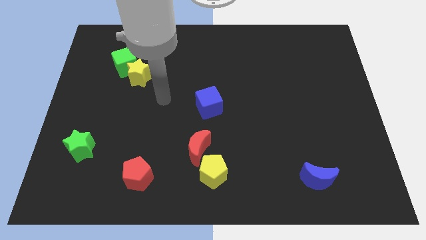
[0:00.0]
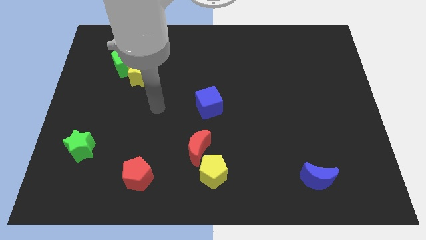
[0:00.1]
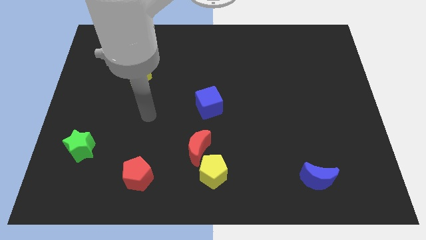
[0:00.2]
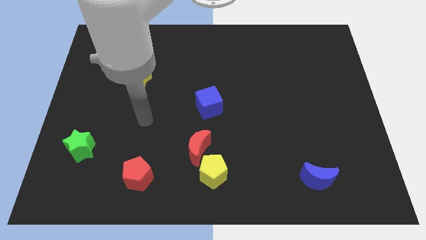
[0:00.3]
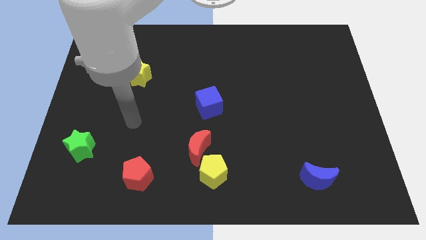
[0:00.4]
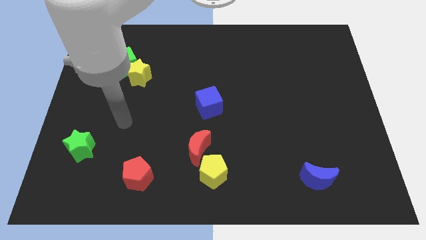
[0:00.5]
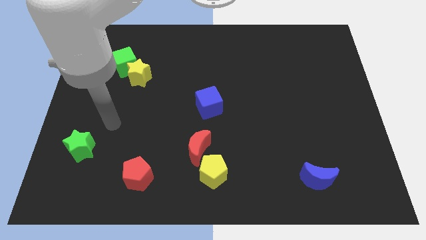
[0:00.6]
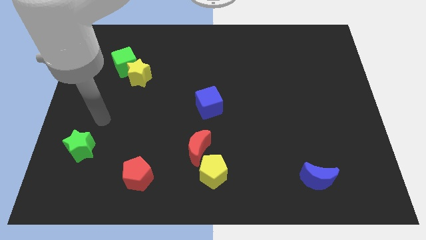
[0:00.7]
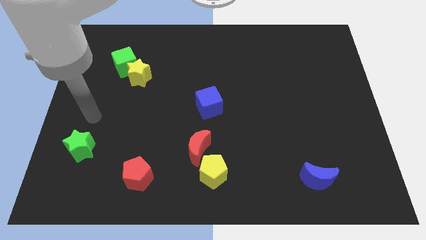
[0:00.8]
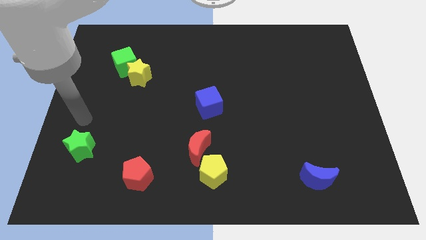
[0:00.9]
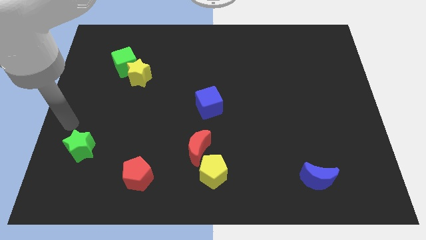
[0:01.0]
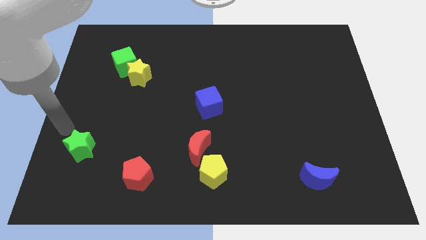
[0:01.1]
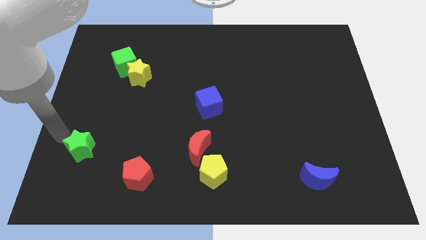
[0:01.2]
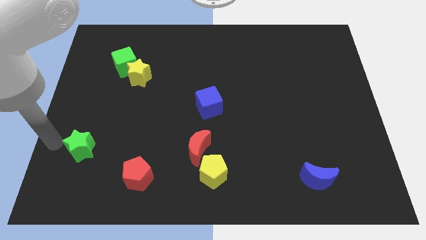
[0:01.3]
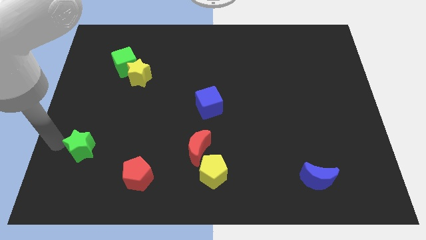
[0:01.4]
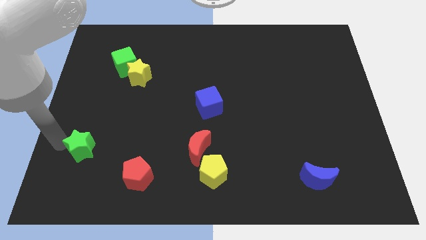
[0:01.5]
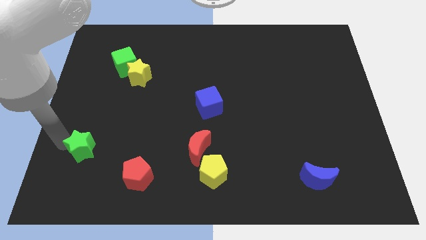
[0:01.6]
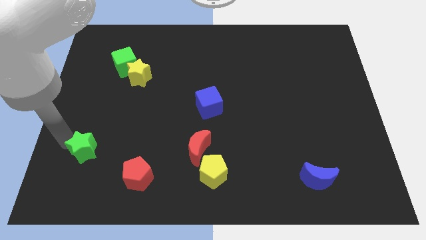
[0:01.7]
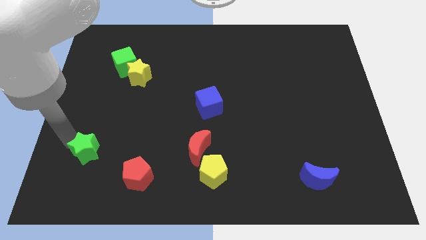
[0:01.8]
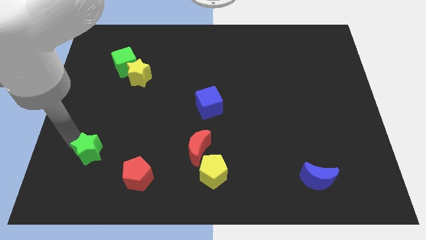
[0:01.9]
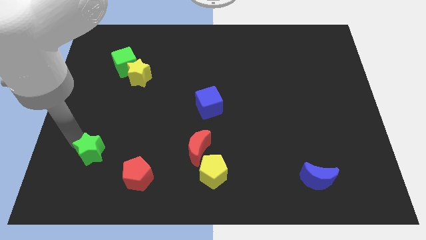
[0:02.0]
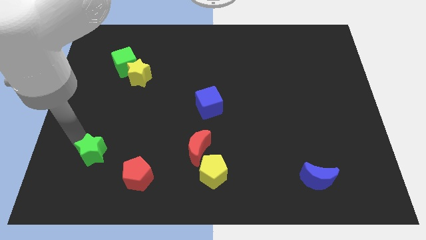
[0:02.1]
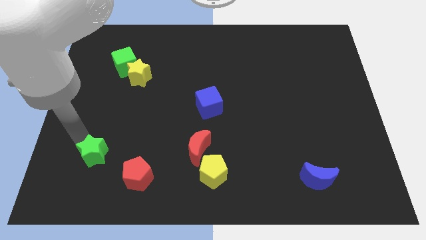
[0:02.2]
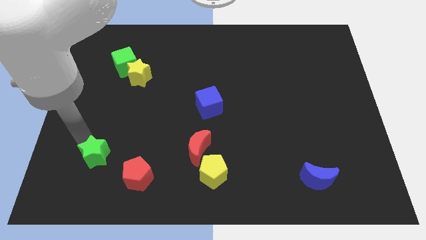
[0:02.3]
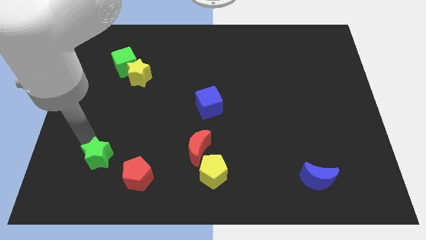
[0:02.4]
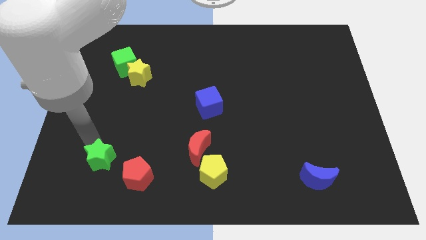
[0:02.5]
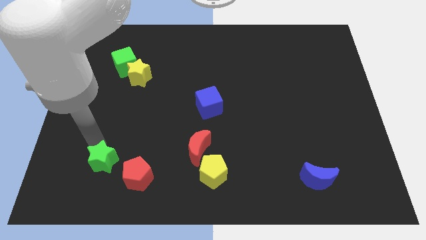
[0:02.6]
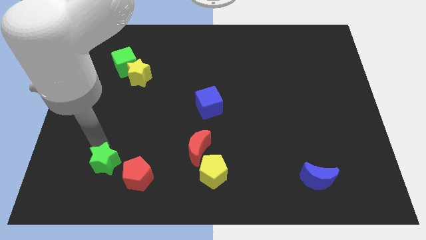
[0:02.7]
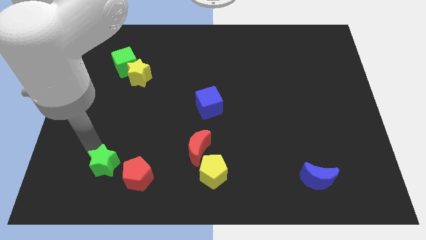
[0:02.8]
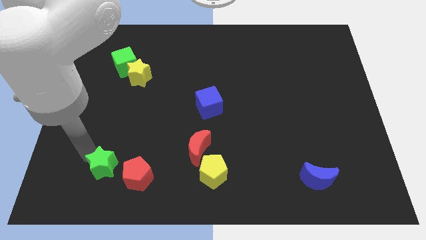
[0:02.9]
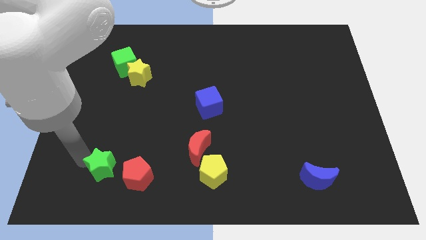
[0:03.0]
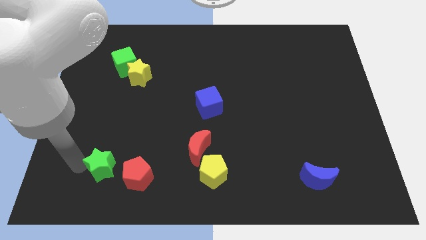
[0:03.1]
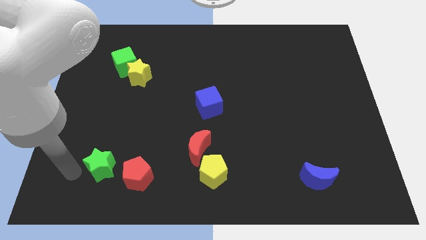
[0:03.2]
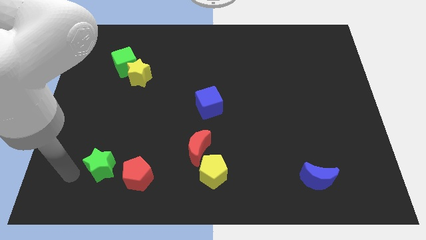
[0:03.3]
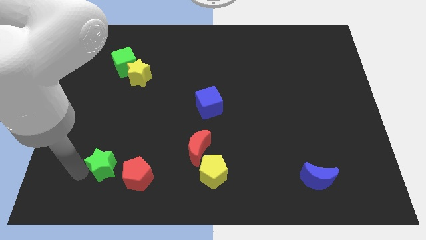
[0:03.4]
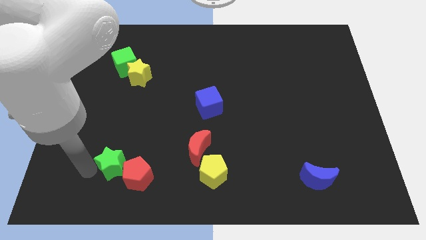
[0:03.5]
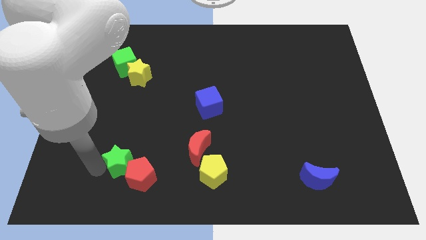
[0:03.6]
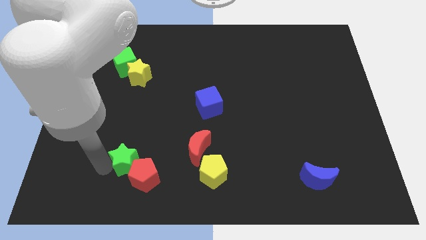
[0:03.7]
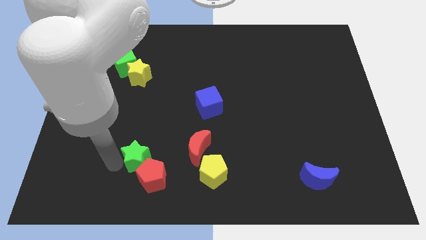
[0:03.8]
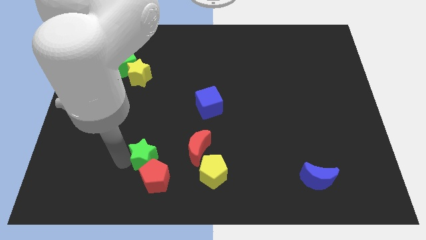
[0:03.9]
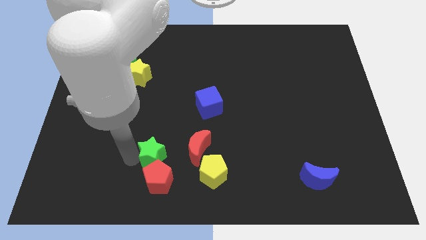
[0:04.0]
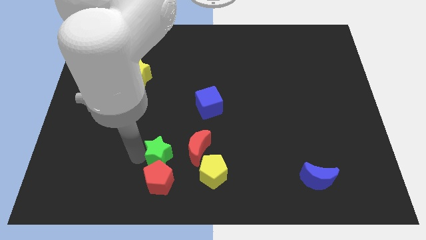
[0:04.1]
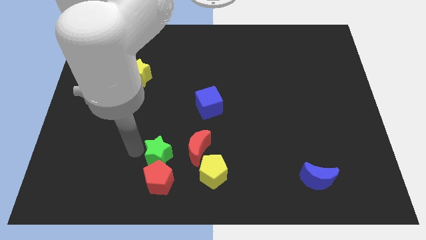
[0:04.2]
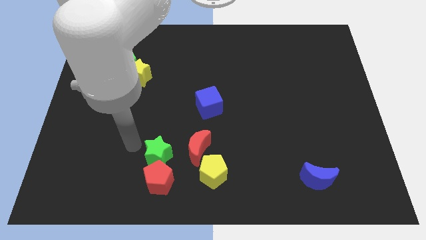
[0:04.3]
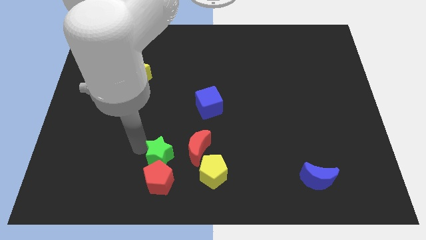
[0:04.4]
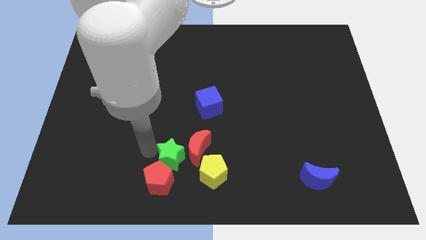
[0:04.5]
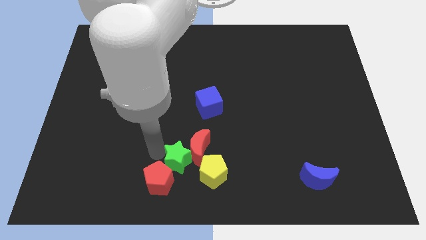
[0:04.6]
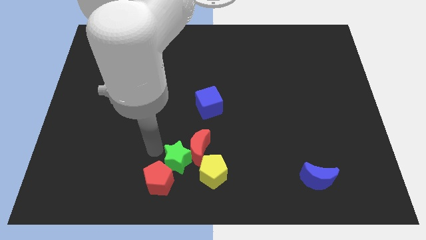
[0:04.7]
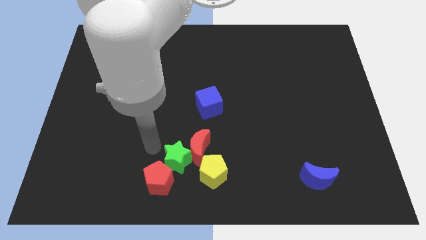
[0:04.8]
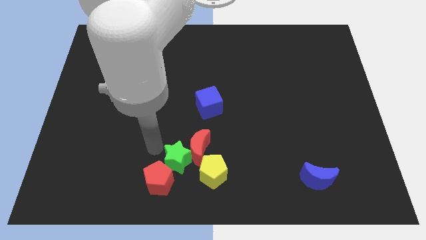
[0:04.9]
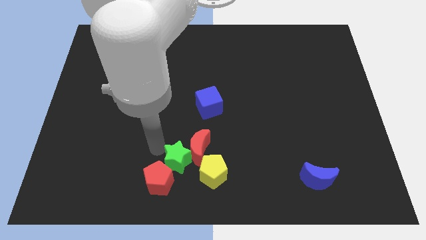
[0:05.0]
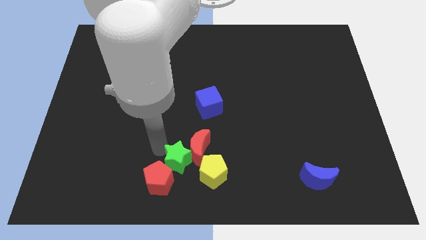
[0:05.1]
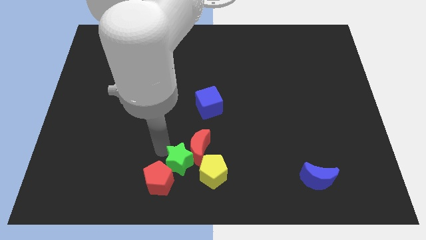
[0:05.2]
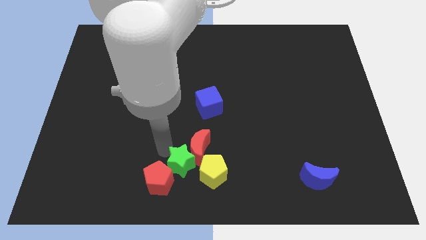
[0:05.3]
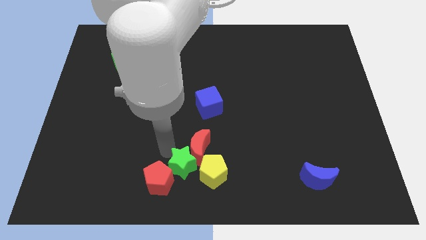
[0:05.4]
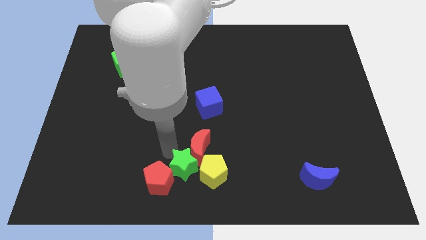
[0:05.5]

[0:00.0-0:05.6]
move the green star towards the yellow pentagon

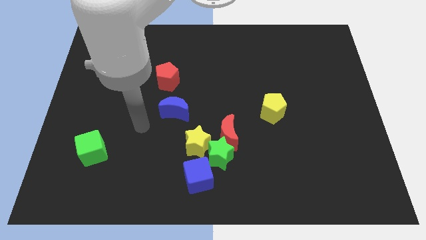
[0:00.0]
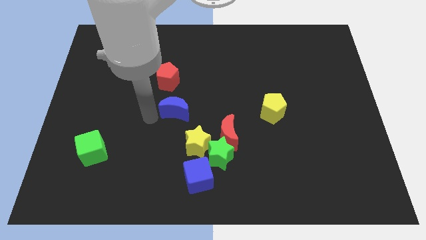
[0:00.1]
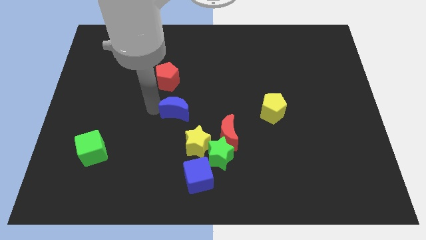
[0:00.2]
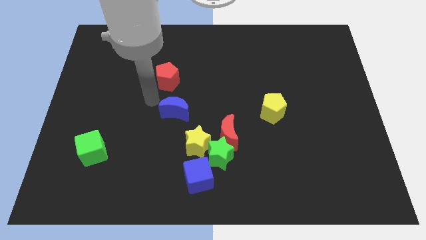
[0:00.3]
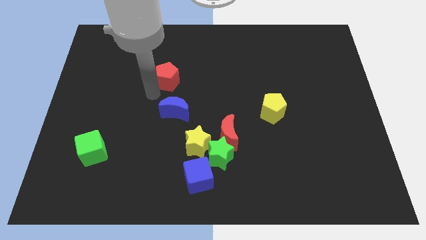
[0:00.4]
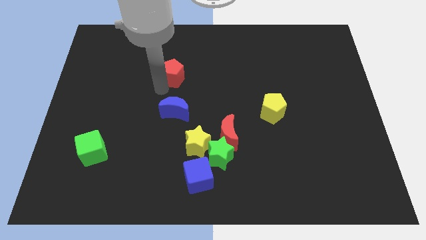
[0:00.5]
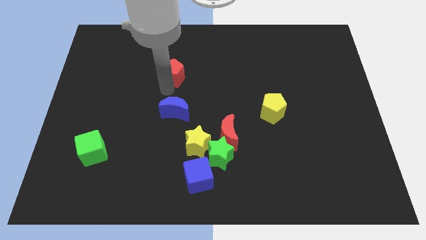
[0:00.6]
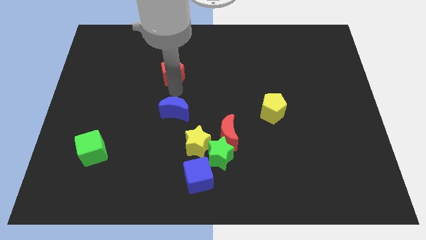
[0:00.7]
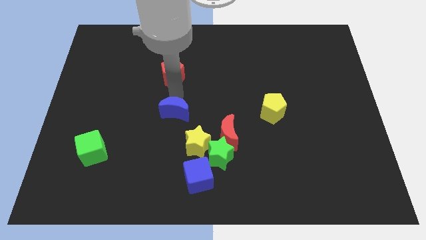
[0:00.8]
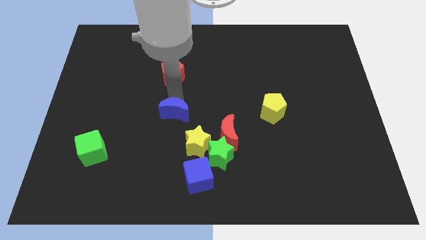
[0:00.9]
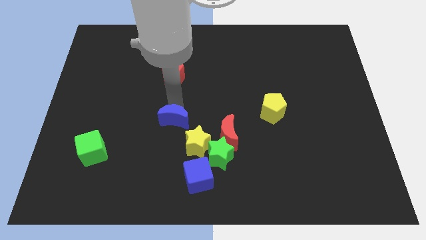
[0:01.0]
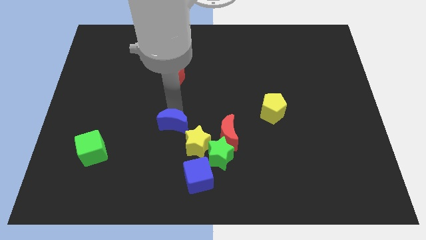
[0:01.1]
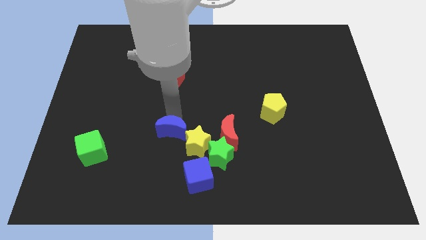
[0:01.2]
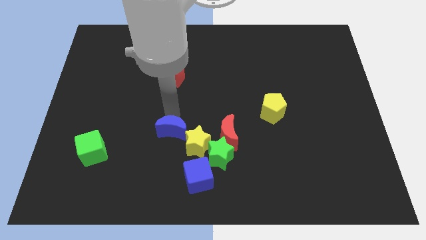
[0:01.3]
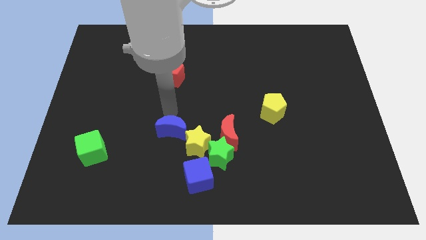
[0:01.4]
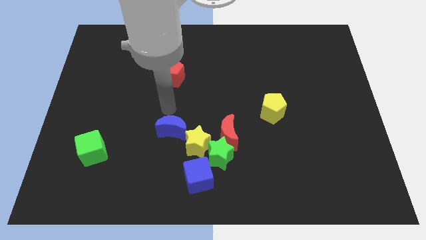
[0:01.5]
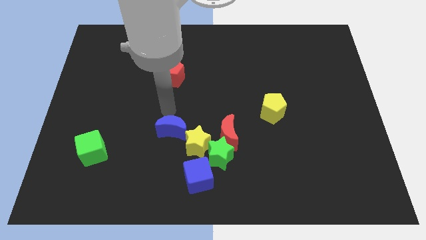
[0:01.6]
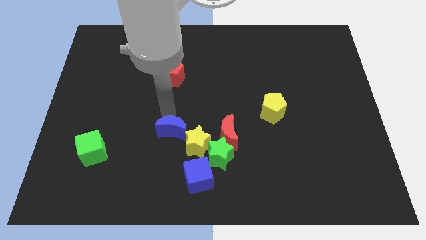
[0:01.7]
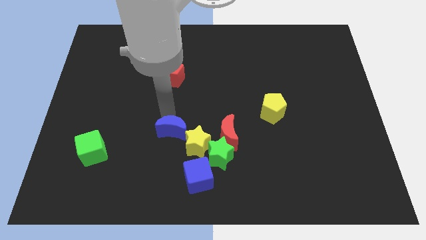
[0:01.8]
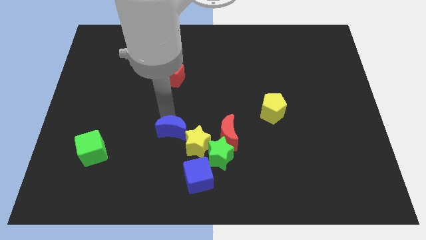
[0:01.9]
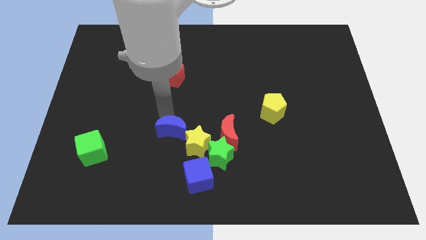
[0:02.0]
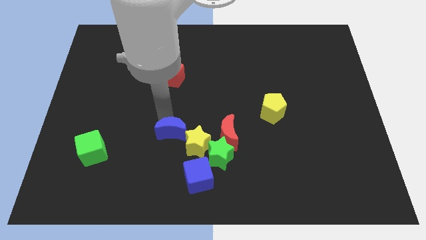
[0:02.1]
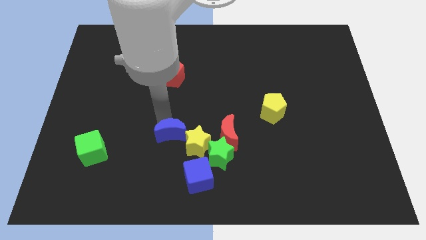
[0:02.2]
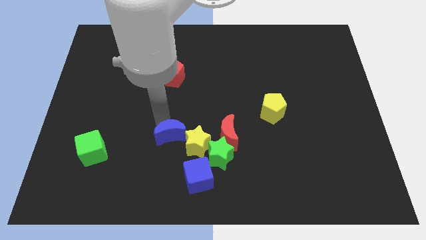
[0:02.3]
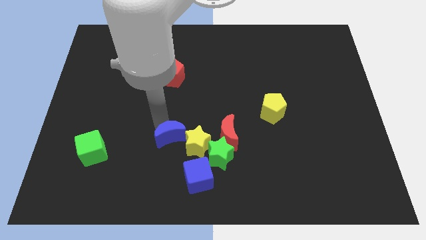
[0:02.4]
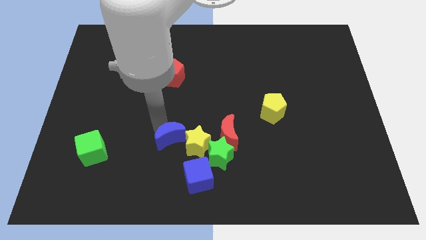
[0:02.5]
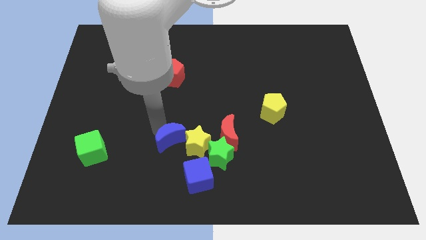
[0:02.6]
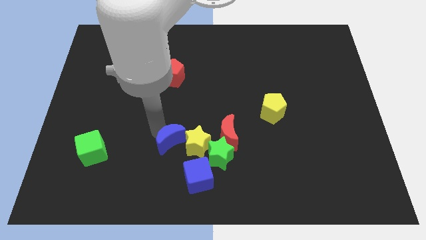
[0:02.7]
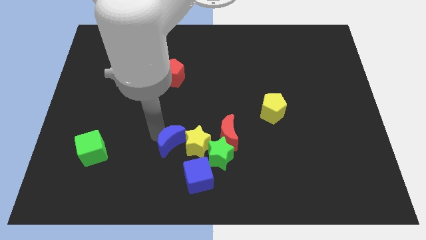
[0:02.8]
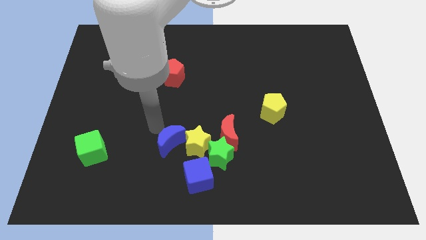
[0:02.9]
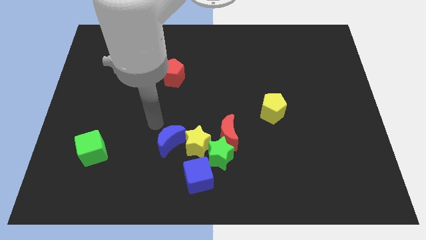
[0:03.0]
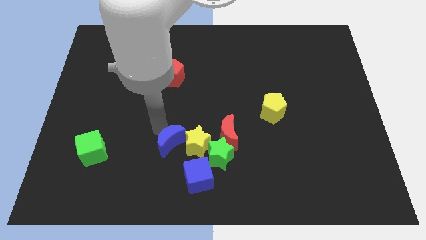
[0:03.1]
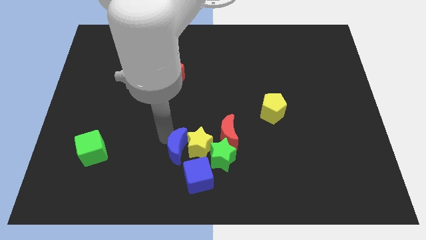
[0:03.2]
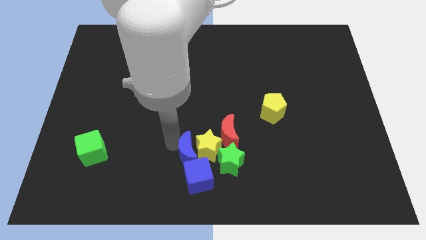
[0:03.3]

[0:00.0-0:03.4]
push the blue moon next to the blue cube
